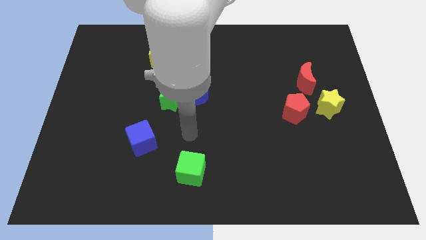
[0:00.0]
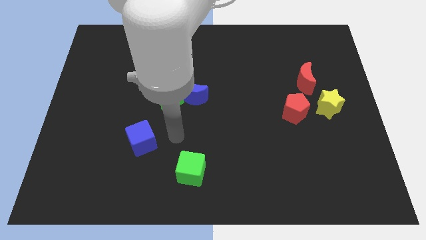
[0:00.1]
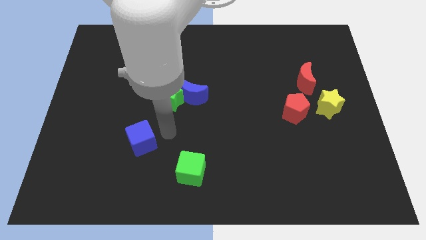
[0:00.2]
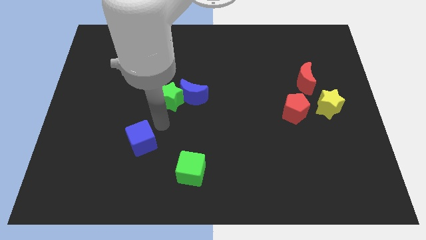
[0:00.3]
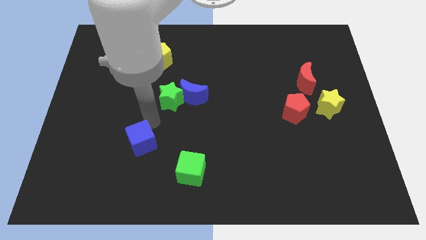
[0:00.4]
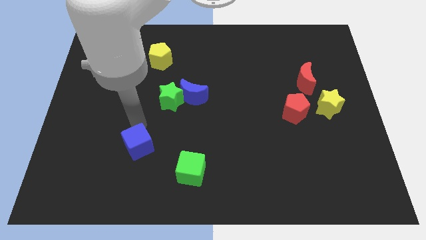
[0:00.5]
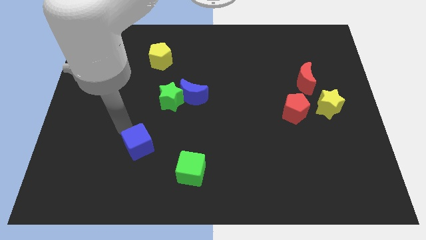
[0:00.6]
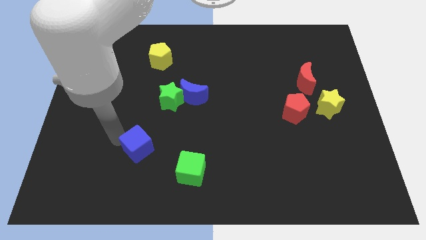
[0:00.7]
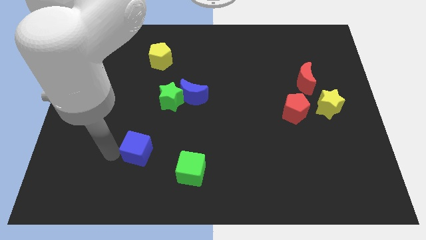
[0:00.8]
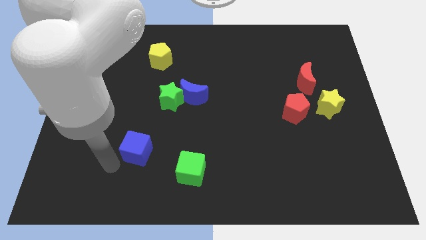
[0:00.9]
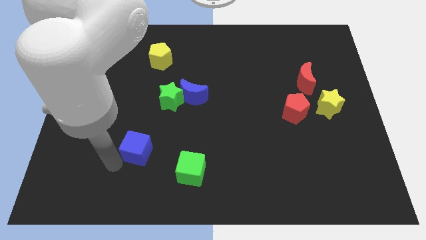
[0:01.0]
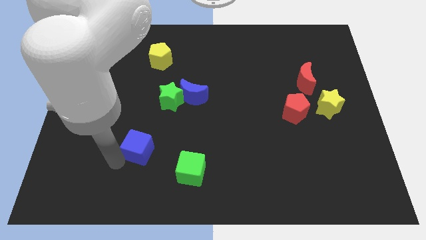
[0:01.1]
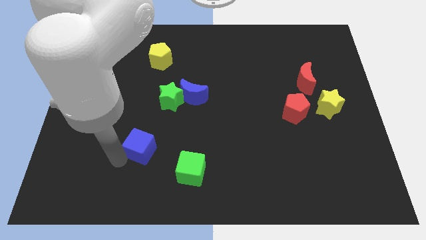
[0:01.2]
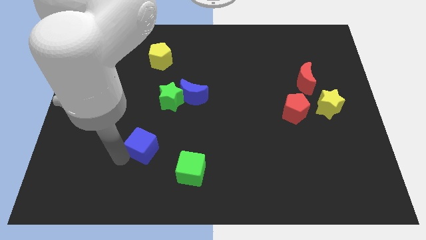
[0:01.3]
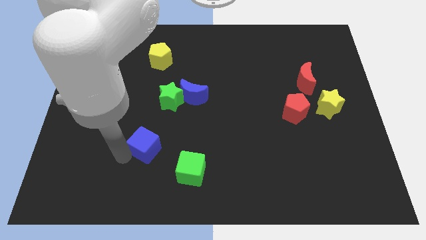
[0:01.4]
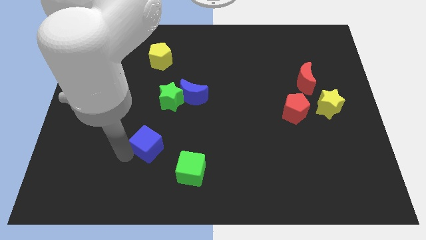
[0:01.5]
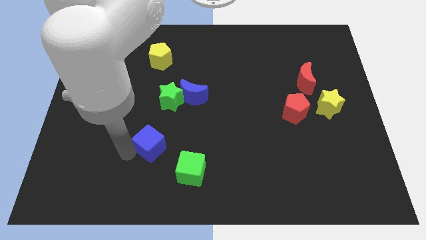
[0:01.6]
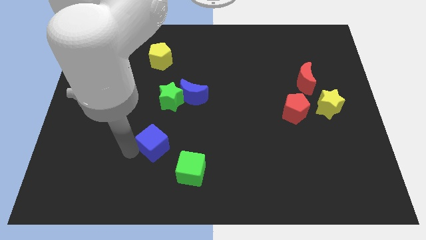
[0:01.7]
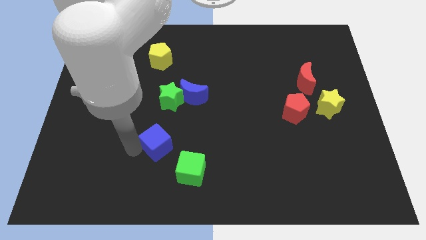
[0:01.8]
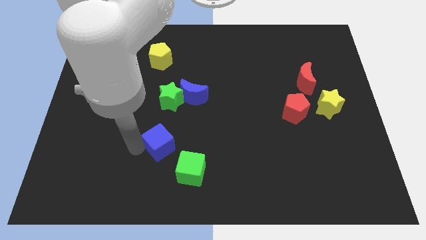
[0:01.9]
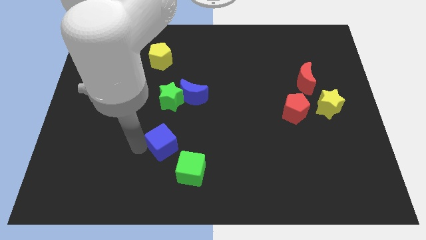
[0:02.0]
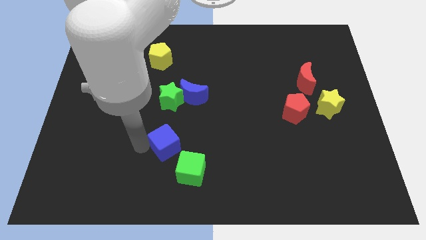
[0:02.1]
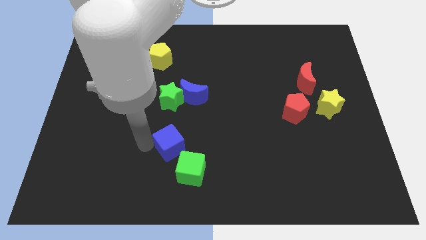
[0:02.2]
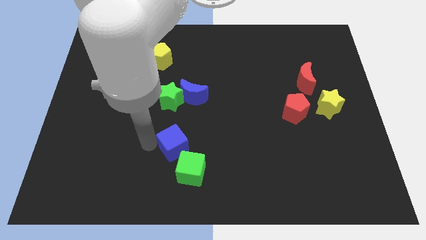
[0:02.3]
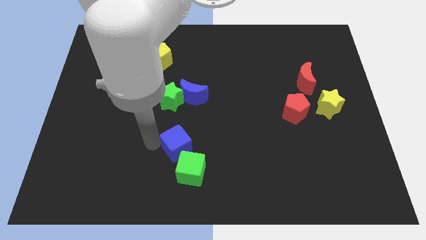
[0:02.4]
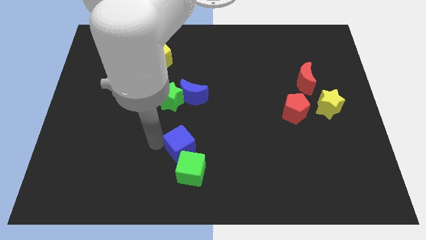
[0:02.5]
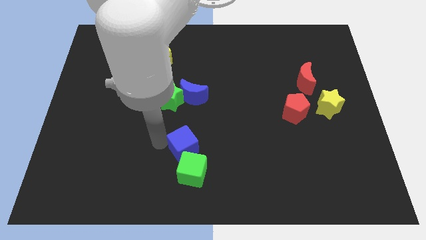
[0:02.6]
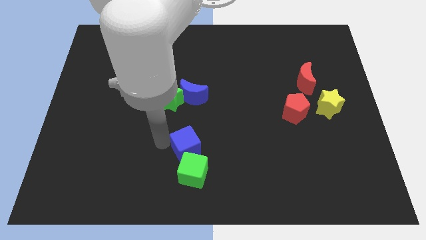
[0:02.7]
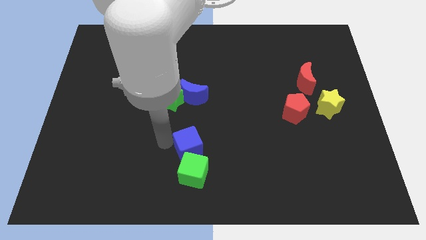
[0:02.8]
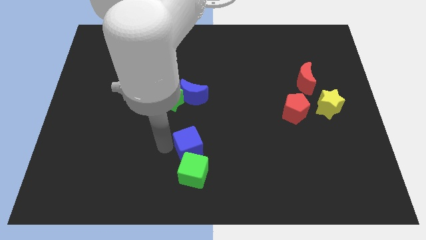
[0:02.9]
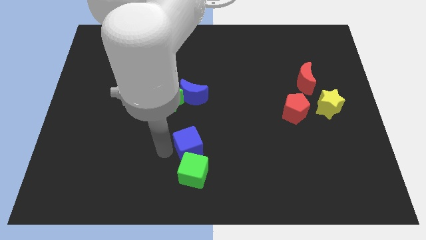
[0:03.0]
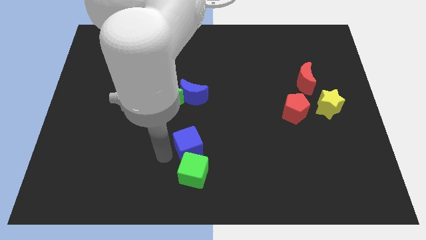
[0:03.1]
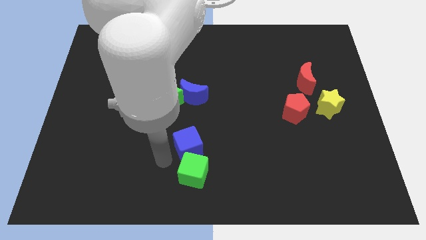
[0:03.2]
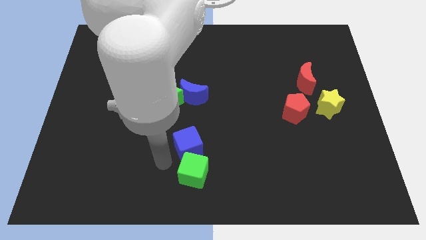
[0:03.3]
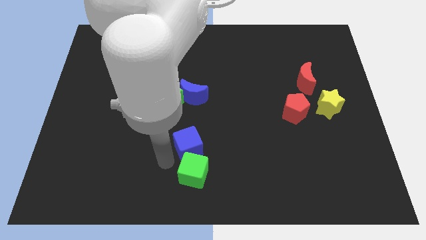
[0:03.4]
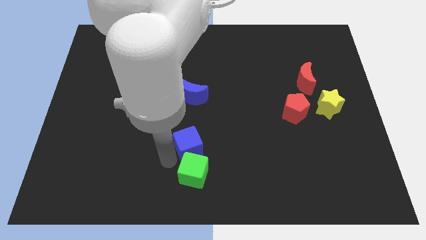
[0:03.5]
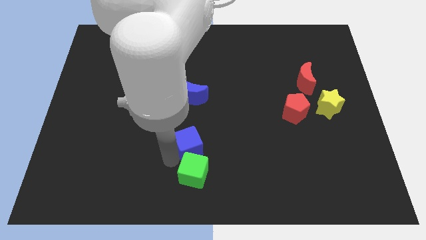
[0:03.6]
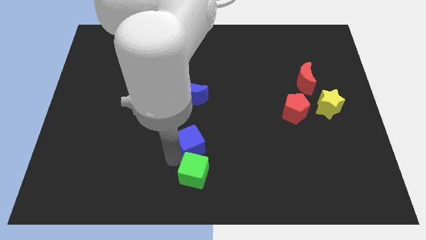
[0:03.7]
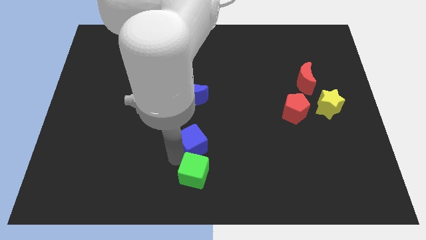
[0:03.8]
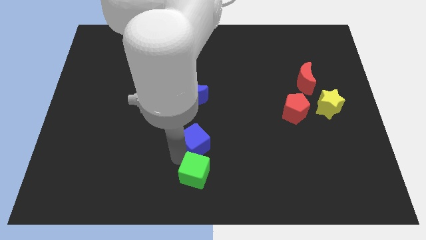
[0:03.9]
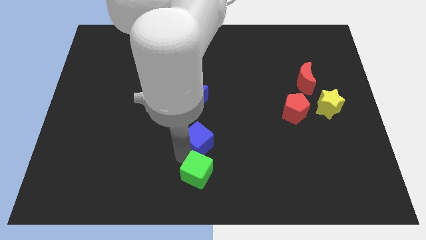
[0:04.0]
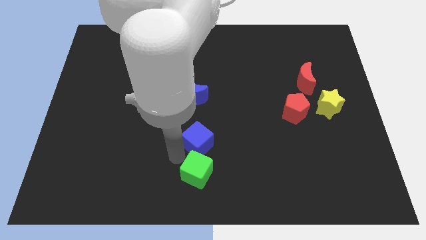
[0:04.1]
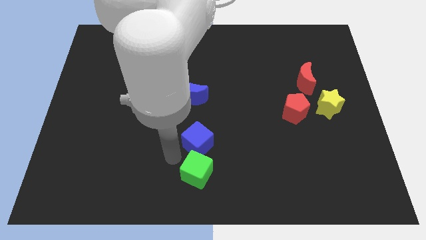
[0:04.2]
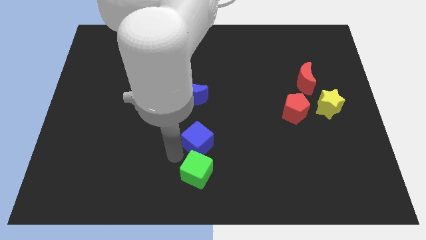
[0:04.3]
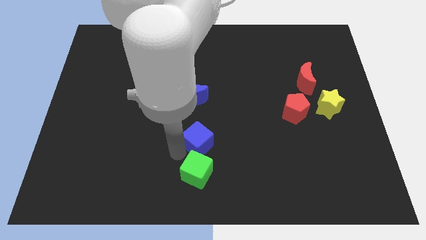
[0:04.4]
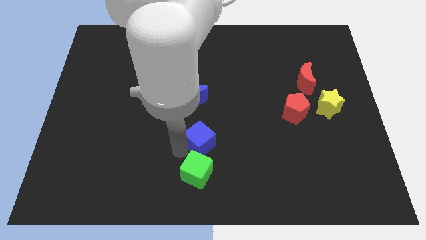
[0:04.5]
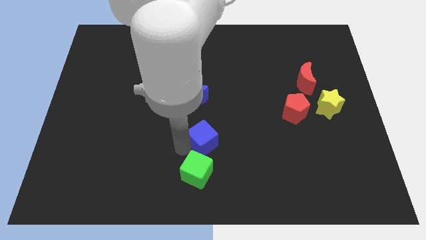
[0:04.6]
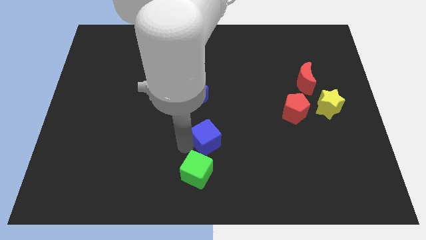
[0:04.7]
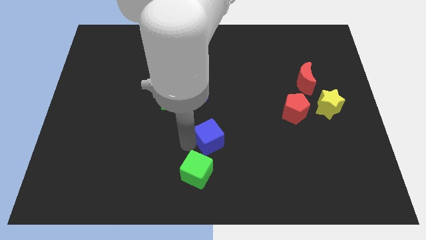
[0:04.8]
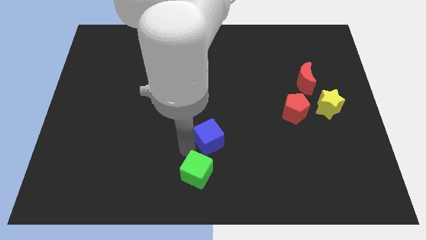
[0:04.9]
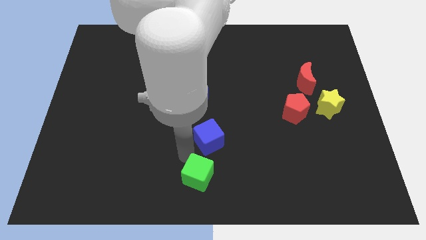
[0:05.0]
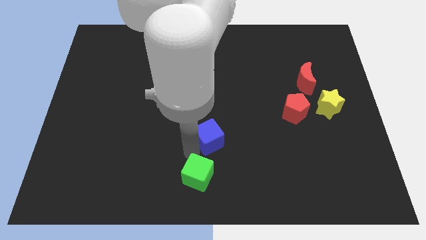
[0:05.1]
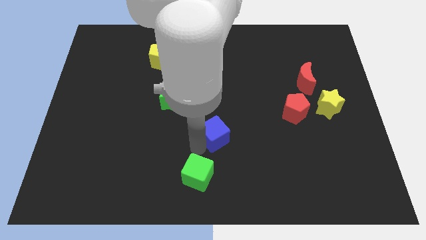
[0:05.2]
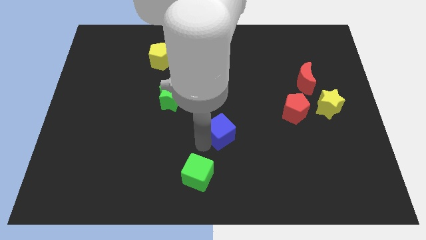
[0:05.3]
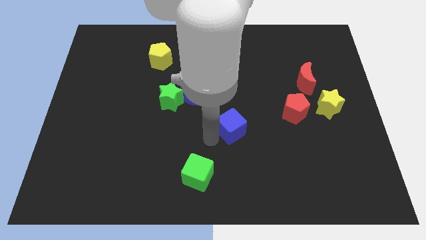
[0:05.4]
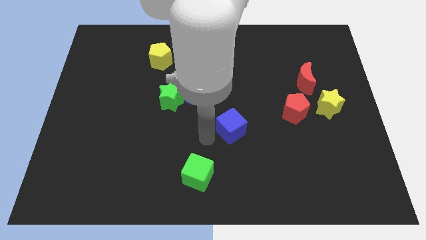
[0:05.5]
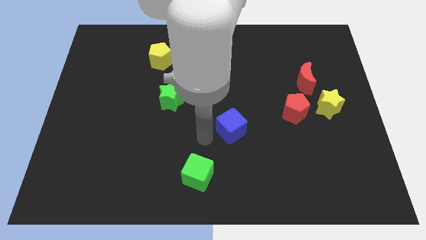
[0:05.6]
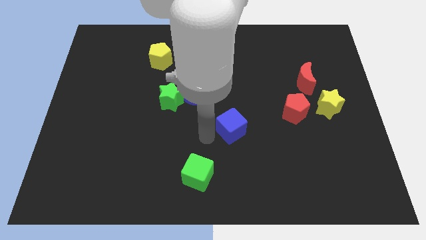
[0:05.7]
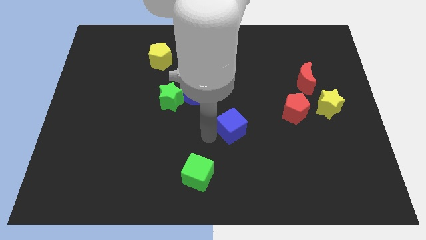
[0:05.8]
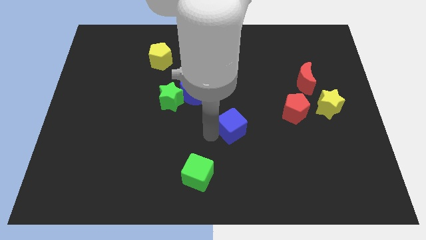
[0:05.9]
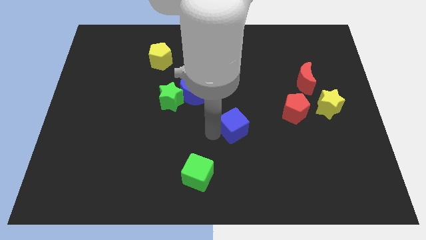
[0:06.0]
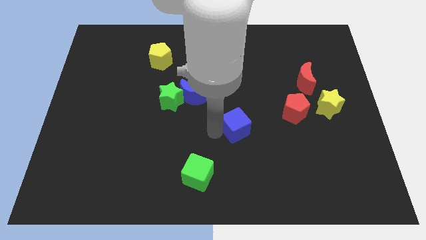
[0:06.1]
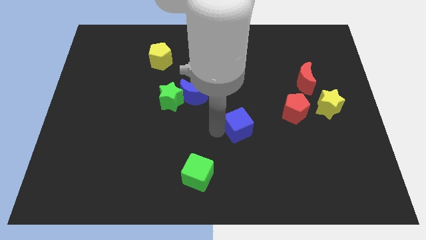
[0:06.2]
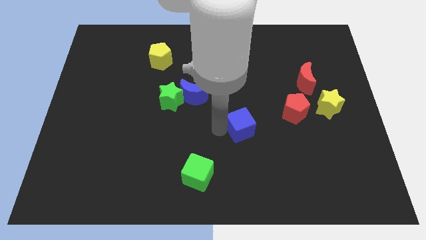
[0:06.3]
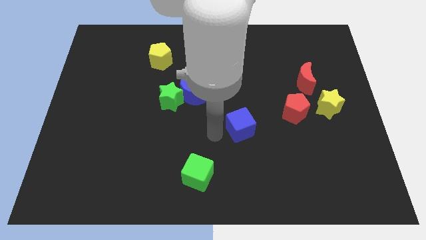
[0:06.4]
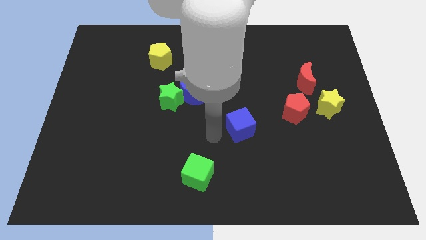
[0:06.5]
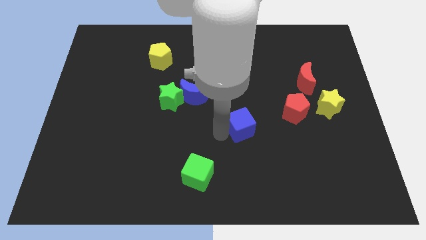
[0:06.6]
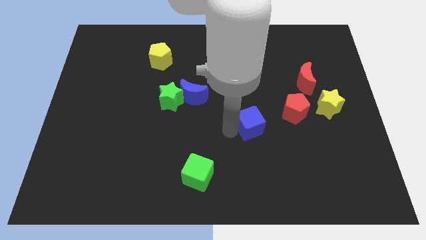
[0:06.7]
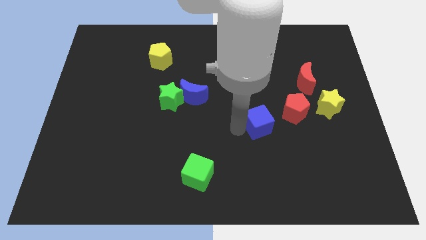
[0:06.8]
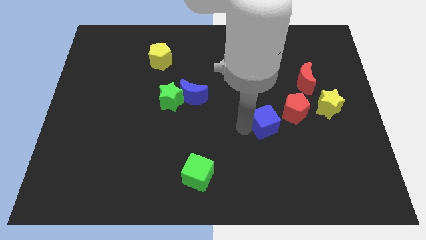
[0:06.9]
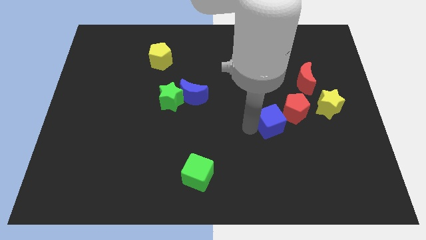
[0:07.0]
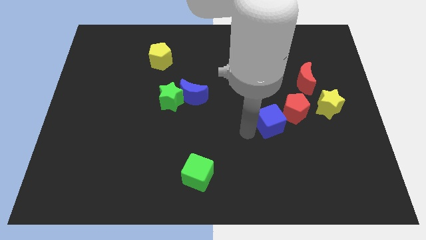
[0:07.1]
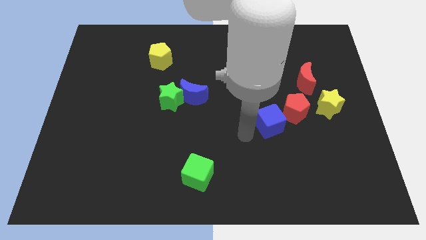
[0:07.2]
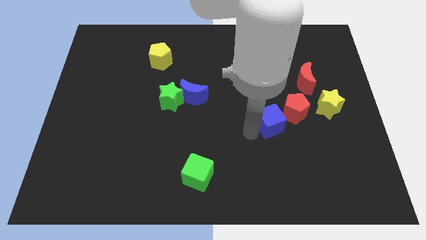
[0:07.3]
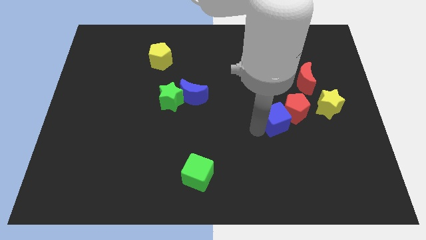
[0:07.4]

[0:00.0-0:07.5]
put the blue cube to the red pentagon

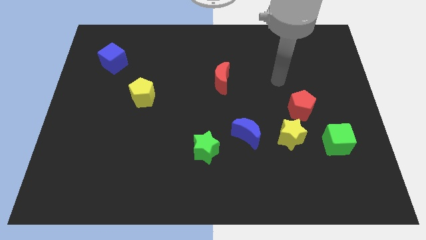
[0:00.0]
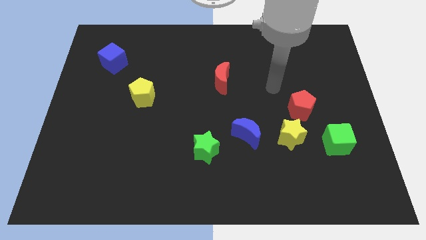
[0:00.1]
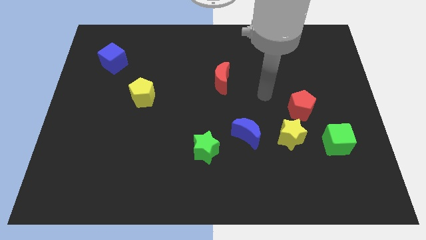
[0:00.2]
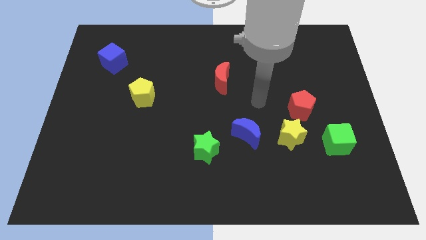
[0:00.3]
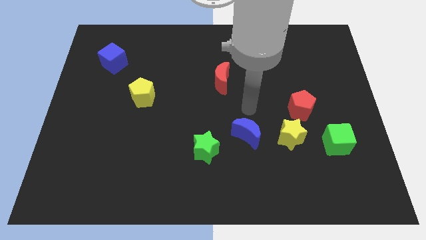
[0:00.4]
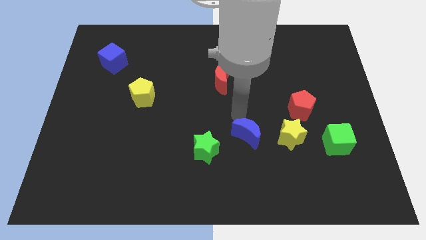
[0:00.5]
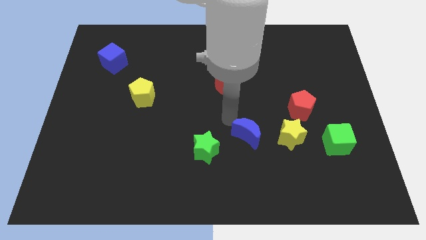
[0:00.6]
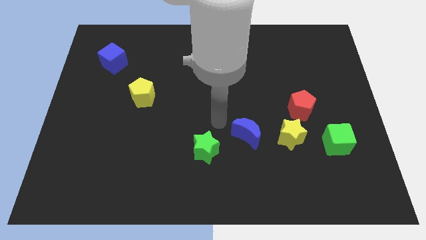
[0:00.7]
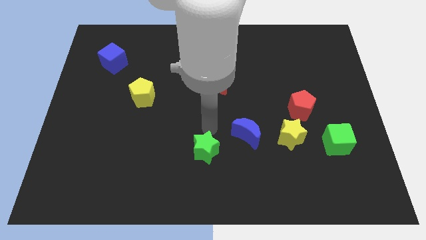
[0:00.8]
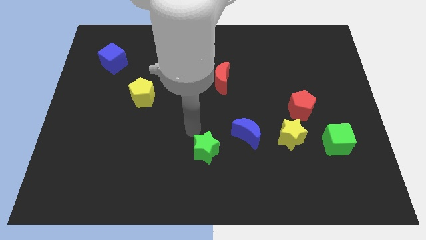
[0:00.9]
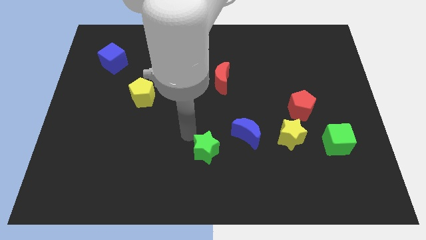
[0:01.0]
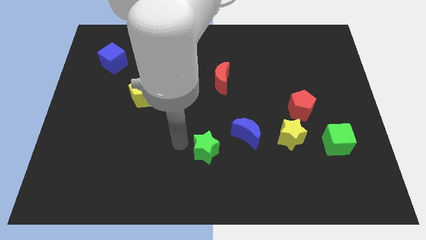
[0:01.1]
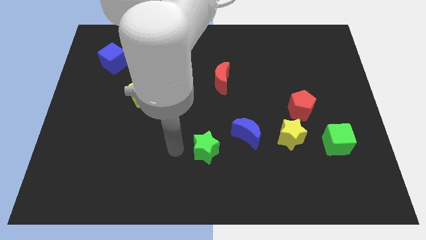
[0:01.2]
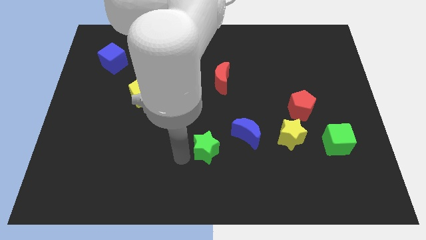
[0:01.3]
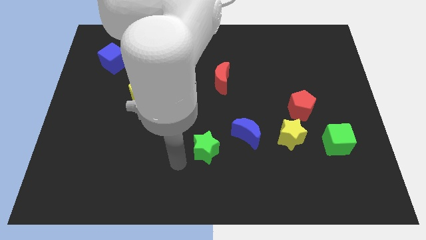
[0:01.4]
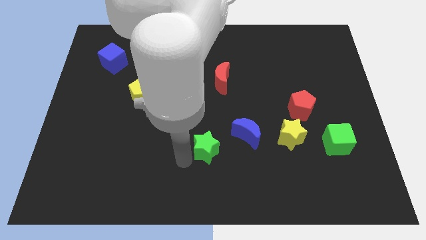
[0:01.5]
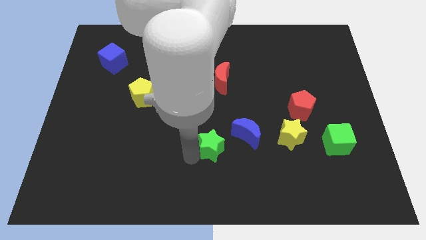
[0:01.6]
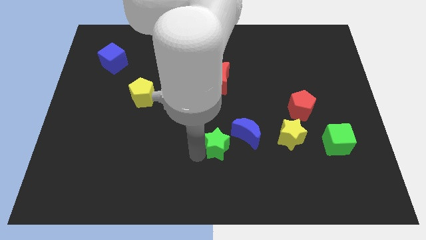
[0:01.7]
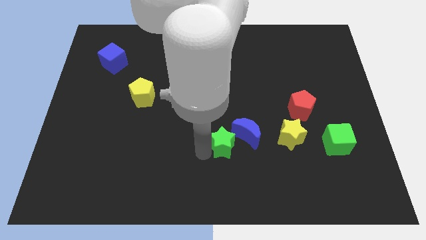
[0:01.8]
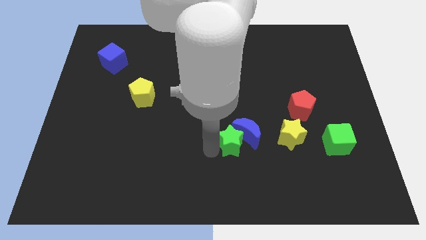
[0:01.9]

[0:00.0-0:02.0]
move the green star towards the blue moon
